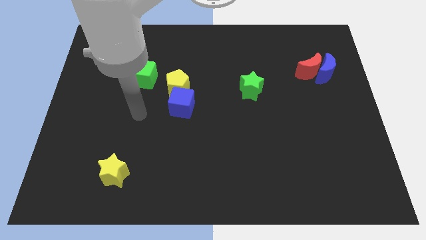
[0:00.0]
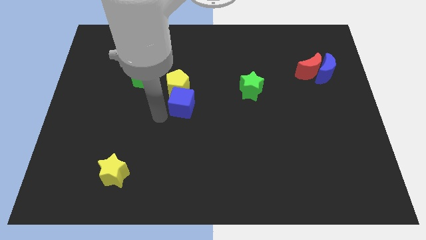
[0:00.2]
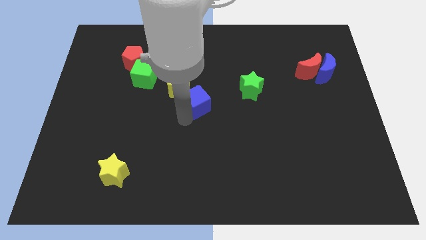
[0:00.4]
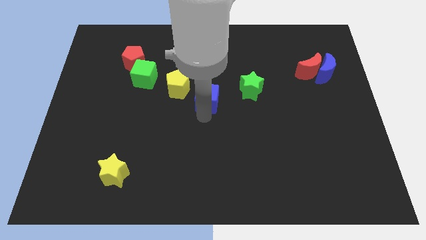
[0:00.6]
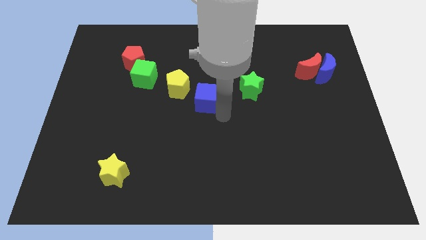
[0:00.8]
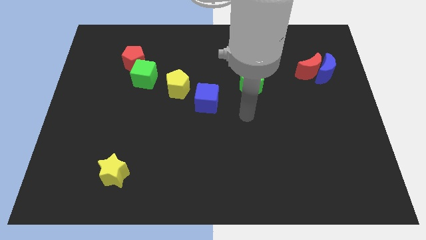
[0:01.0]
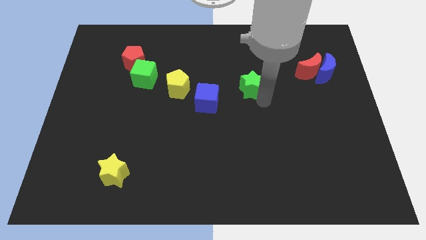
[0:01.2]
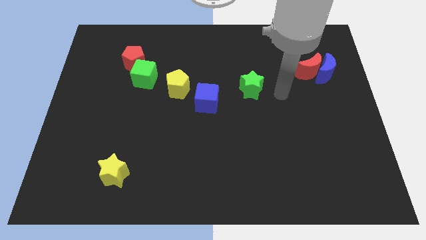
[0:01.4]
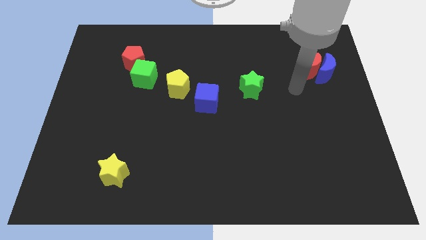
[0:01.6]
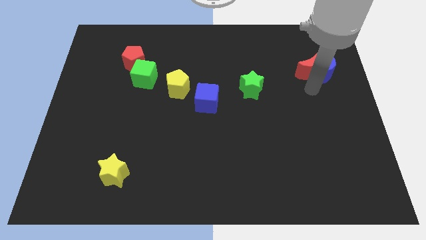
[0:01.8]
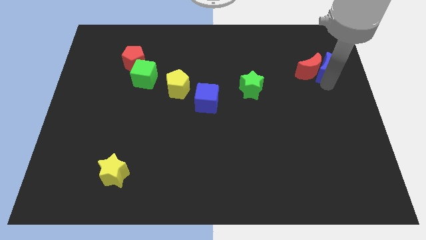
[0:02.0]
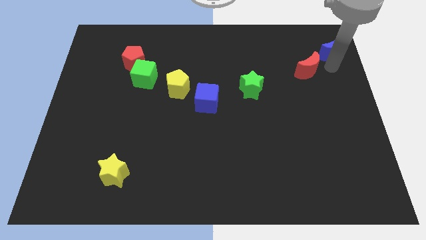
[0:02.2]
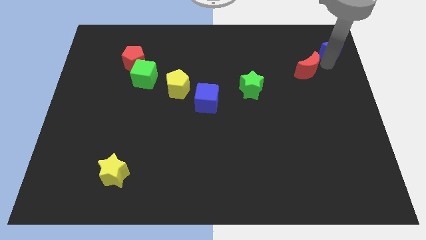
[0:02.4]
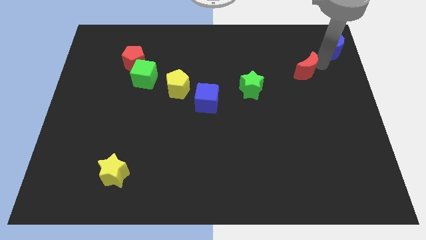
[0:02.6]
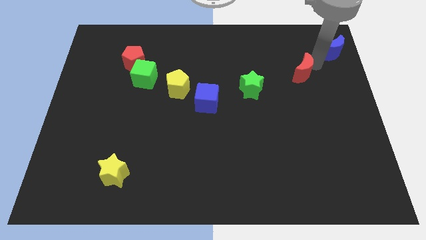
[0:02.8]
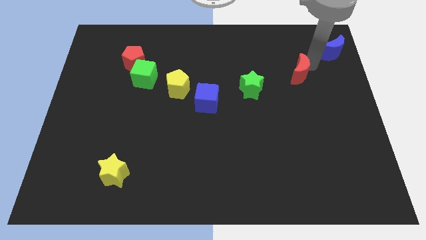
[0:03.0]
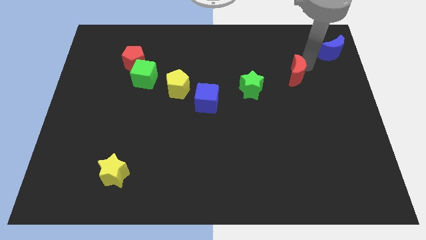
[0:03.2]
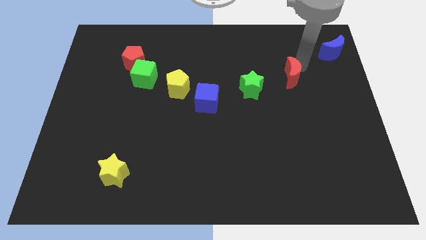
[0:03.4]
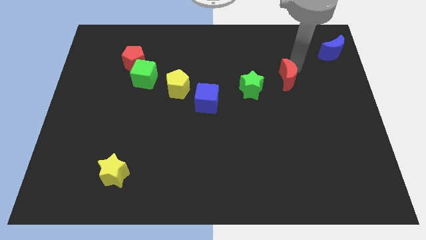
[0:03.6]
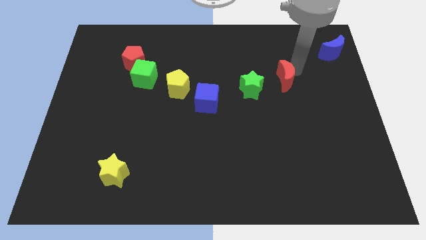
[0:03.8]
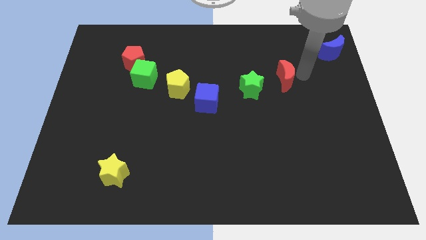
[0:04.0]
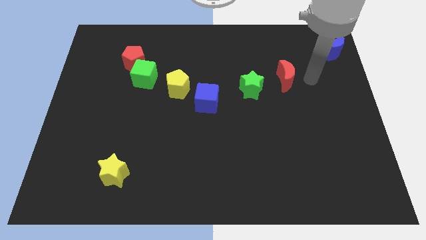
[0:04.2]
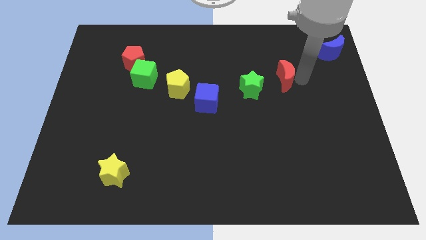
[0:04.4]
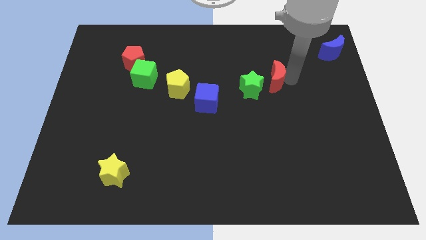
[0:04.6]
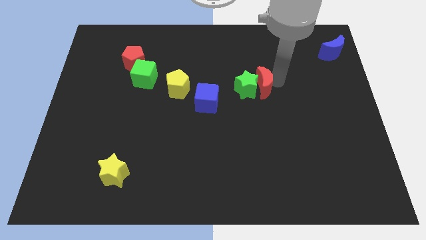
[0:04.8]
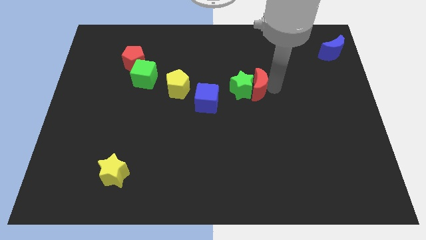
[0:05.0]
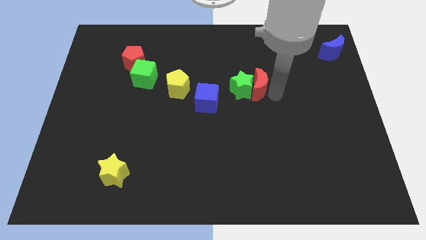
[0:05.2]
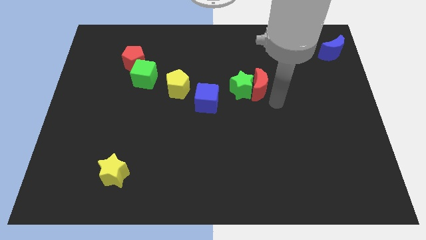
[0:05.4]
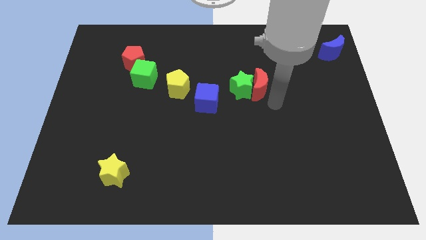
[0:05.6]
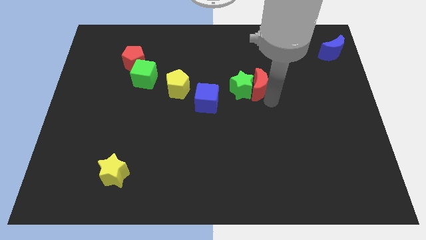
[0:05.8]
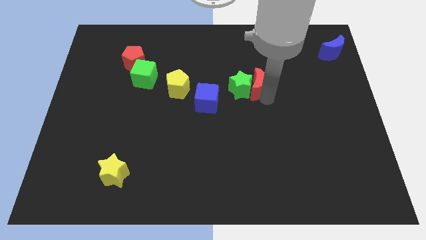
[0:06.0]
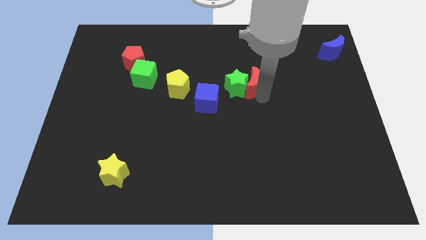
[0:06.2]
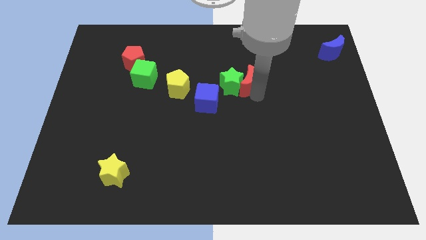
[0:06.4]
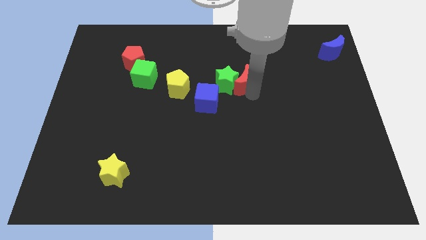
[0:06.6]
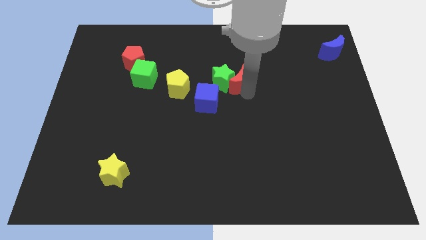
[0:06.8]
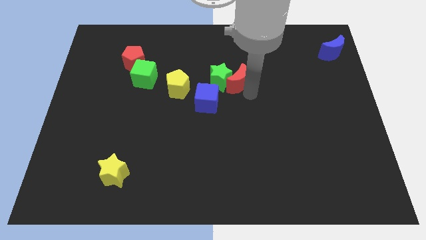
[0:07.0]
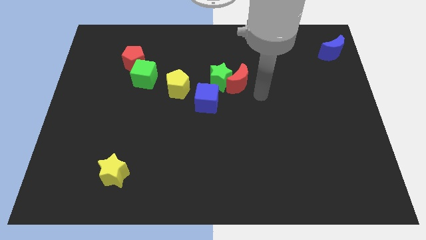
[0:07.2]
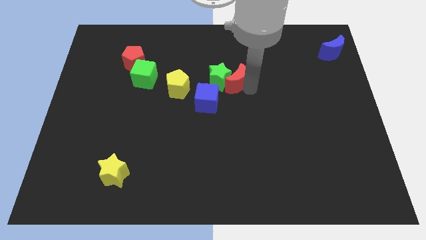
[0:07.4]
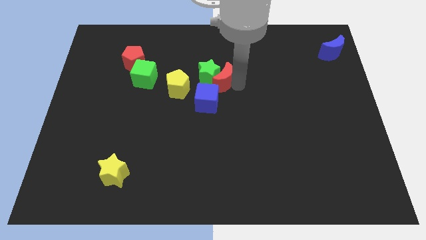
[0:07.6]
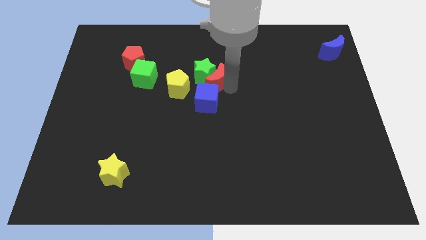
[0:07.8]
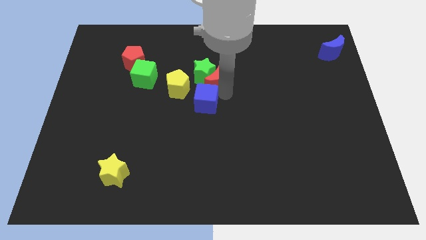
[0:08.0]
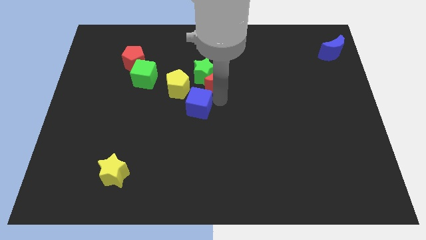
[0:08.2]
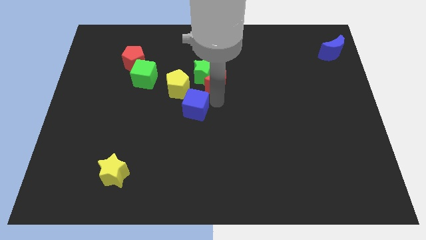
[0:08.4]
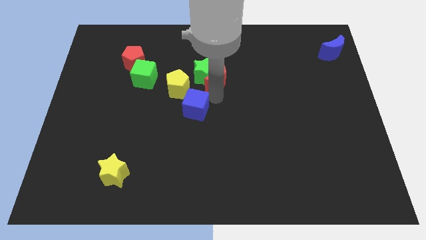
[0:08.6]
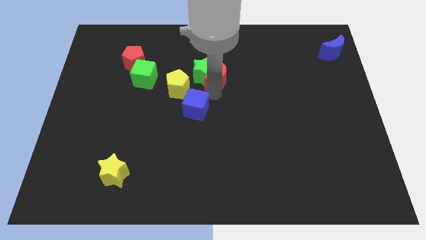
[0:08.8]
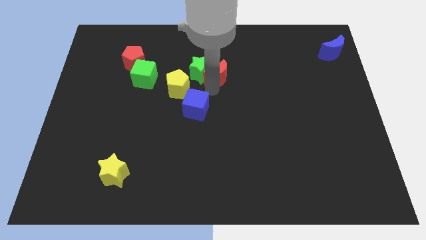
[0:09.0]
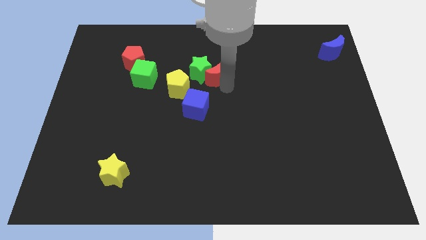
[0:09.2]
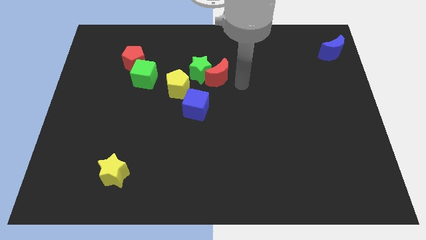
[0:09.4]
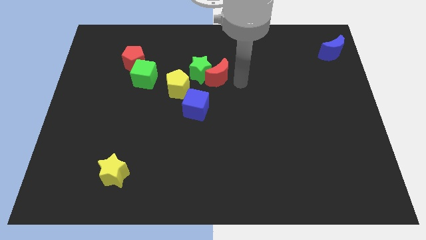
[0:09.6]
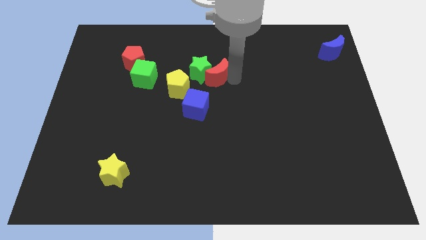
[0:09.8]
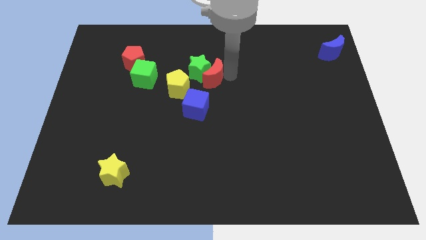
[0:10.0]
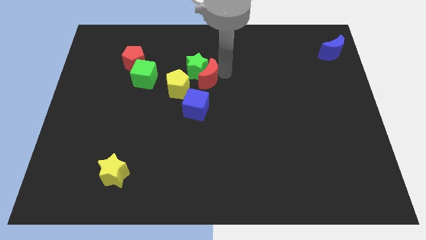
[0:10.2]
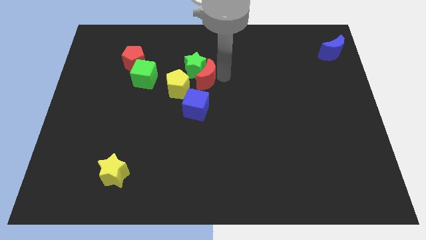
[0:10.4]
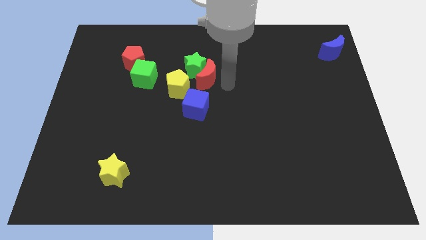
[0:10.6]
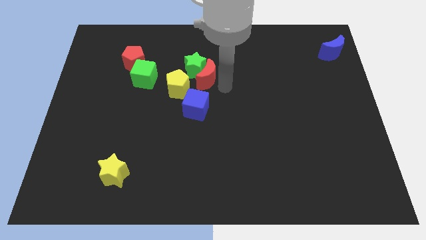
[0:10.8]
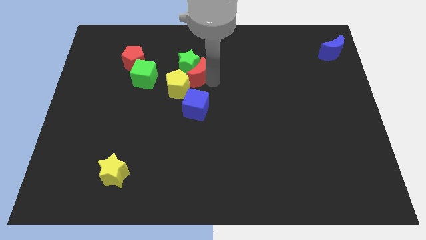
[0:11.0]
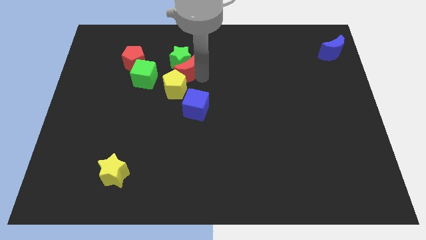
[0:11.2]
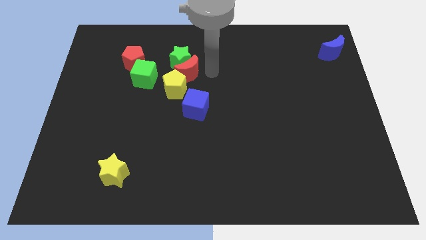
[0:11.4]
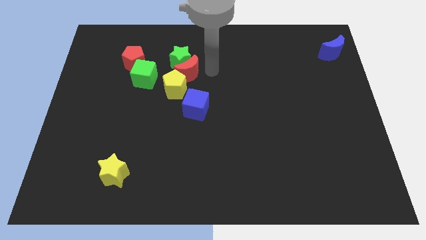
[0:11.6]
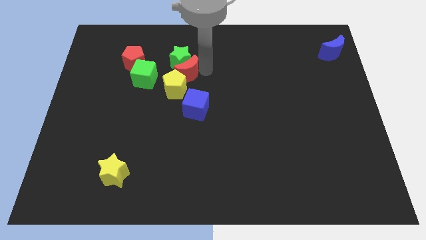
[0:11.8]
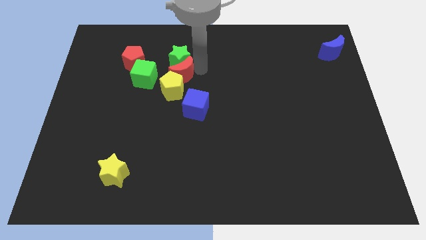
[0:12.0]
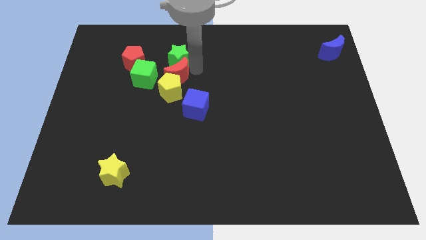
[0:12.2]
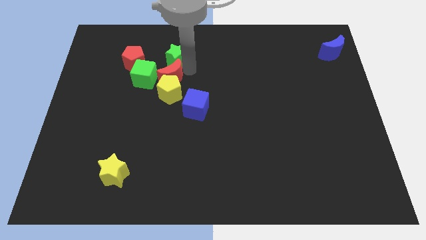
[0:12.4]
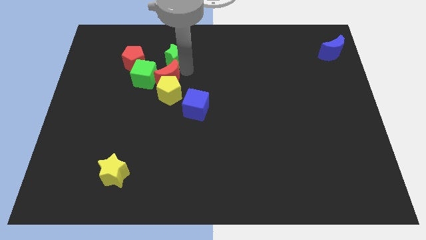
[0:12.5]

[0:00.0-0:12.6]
slide the red moon close to the green cube

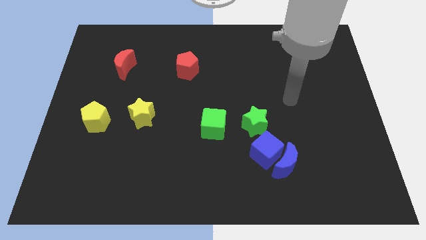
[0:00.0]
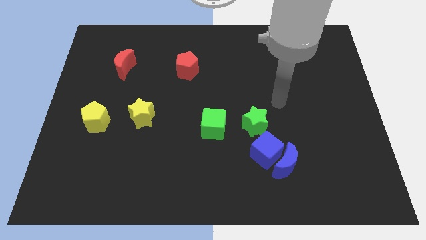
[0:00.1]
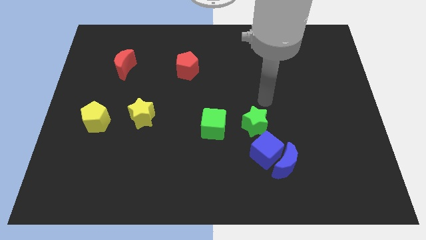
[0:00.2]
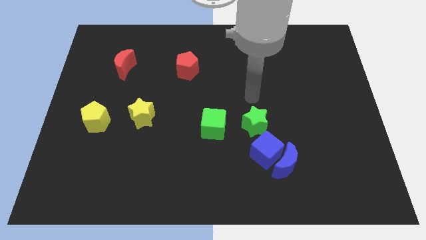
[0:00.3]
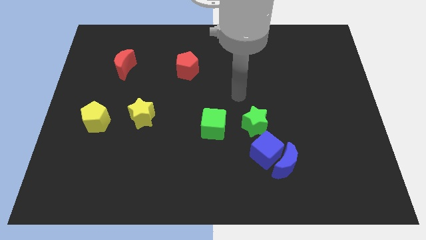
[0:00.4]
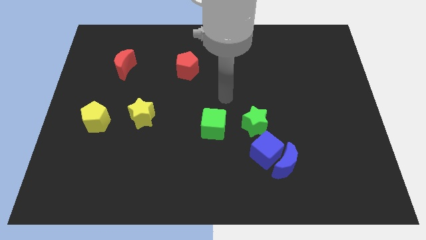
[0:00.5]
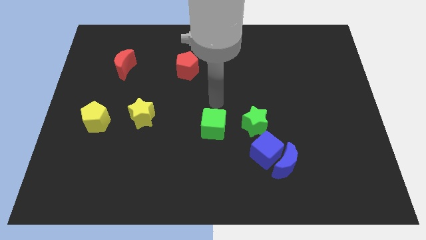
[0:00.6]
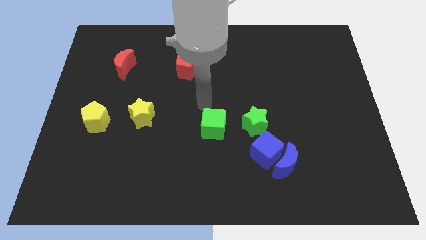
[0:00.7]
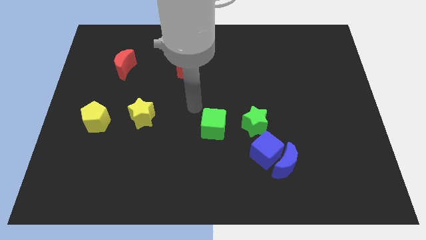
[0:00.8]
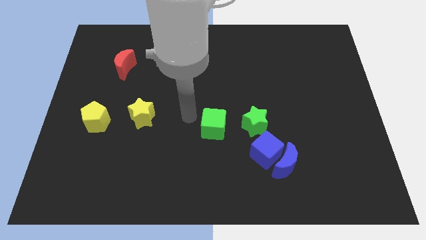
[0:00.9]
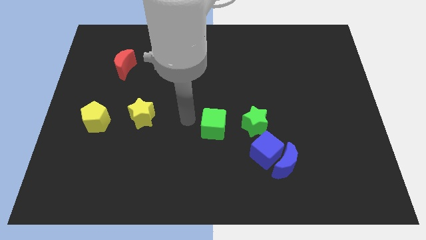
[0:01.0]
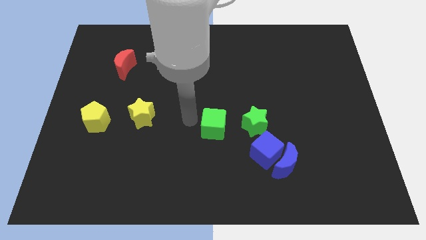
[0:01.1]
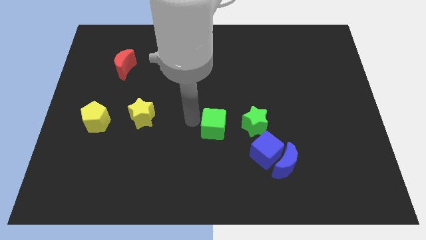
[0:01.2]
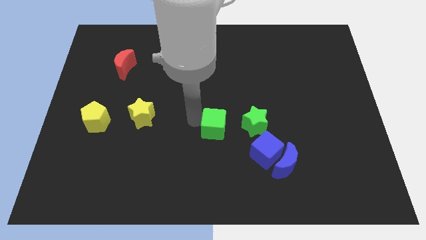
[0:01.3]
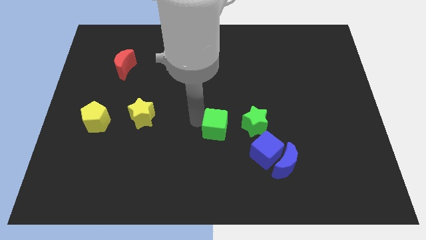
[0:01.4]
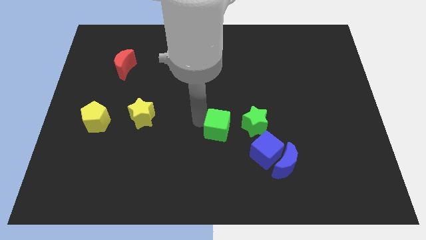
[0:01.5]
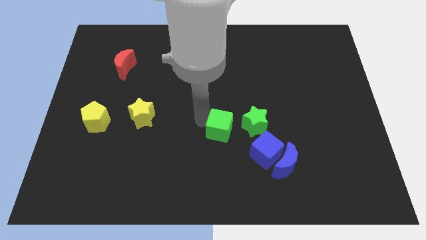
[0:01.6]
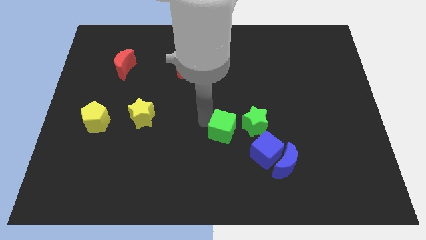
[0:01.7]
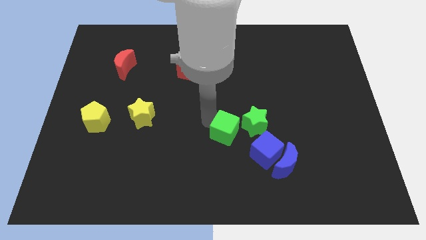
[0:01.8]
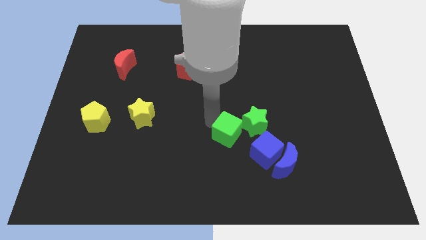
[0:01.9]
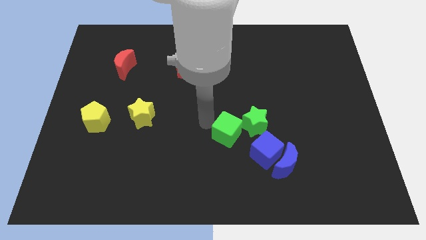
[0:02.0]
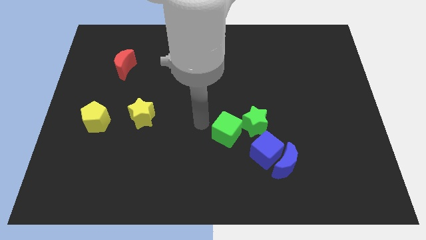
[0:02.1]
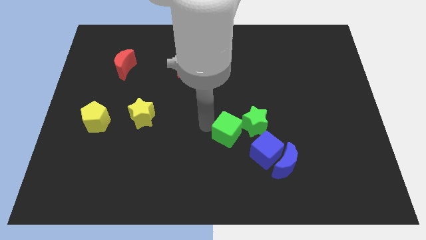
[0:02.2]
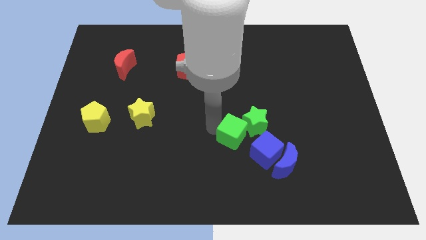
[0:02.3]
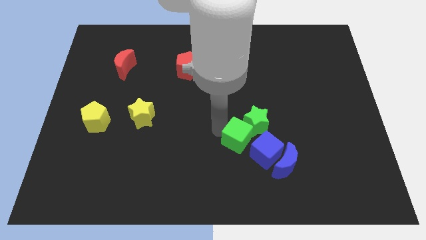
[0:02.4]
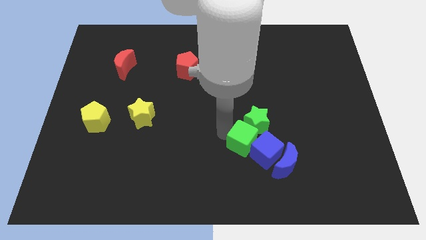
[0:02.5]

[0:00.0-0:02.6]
slide the green cube towards the blue cube
